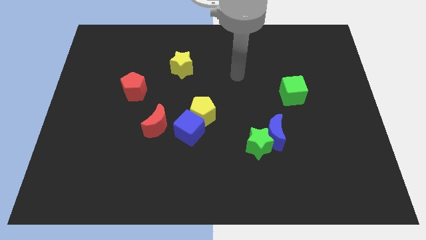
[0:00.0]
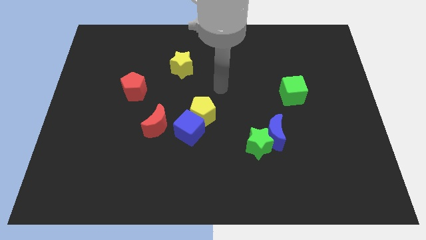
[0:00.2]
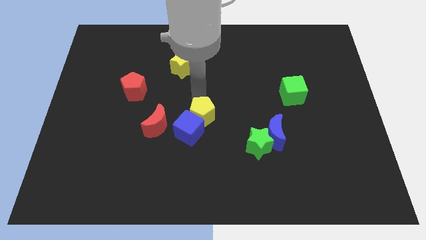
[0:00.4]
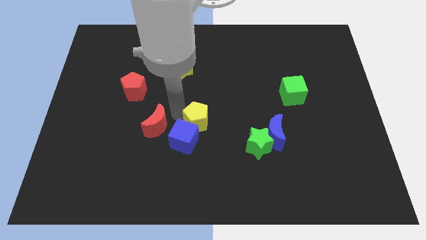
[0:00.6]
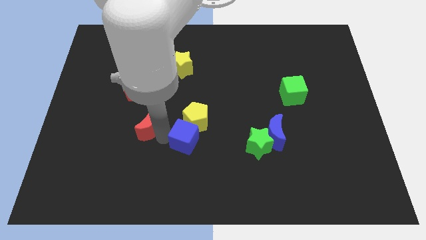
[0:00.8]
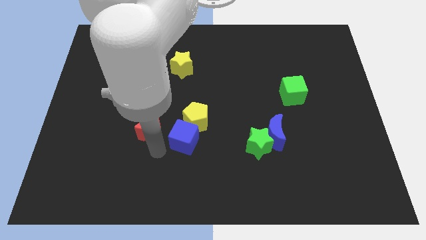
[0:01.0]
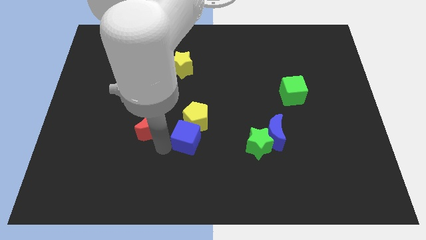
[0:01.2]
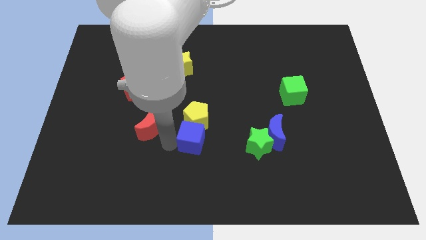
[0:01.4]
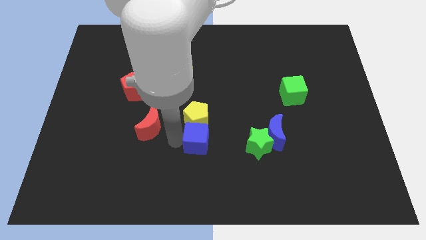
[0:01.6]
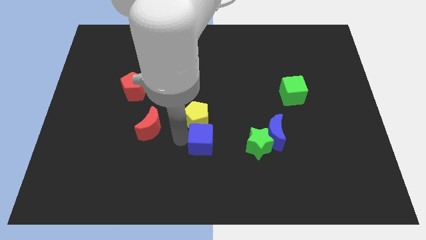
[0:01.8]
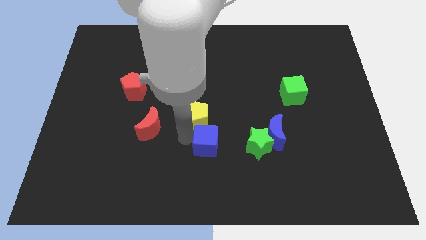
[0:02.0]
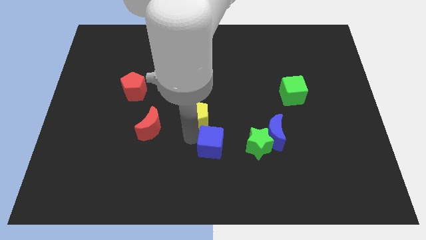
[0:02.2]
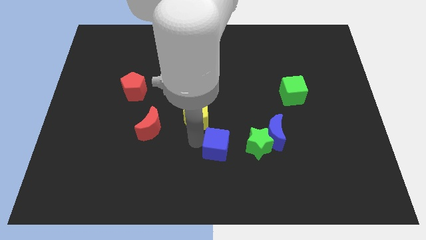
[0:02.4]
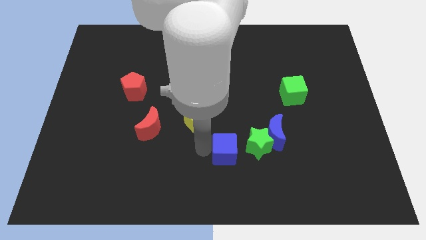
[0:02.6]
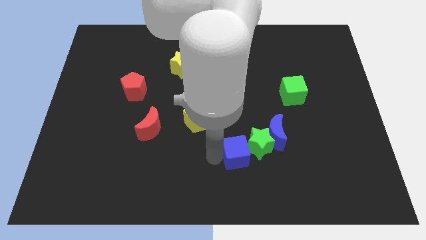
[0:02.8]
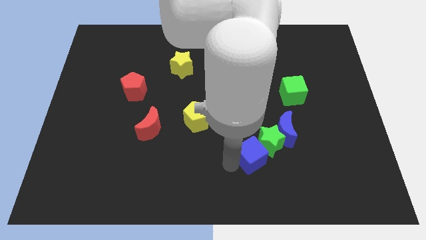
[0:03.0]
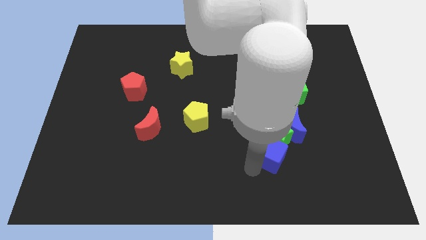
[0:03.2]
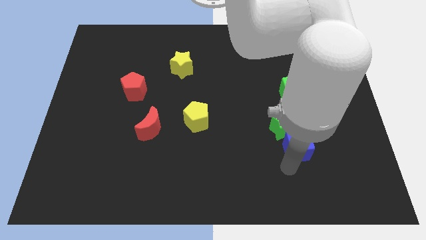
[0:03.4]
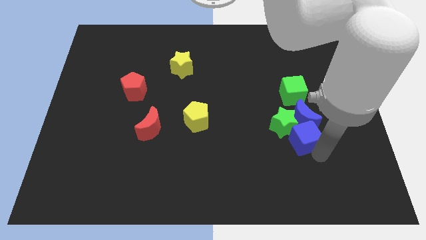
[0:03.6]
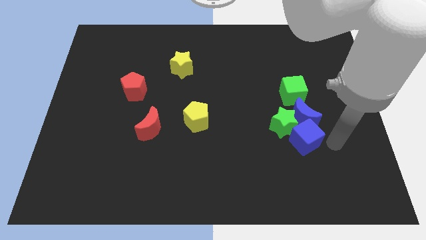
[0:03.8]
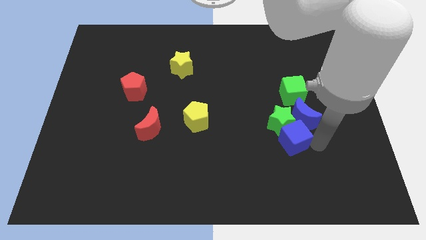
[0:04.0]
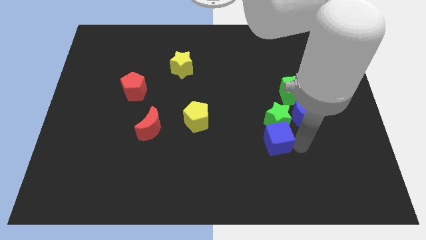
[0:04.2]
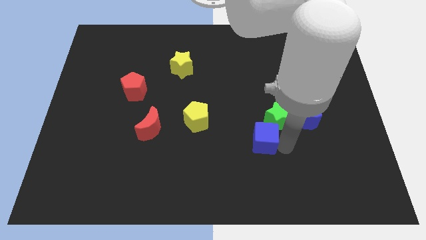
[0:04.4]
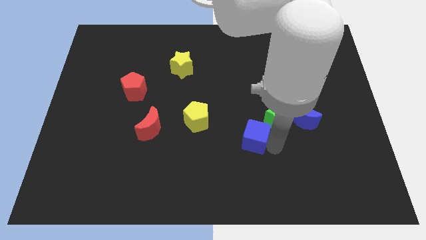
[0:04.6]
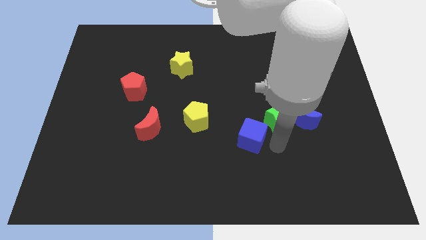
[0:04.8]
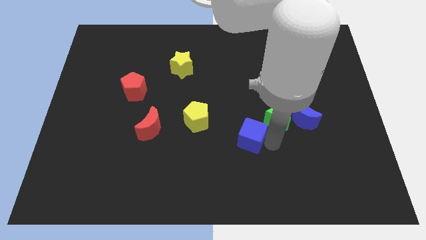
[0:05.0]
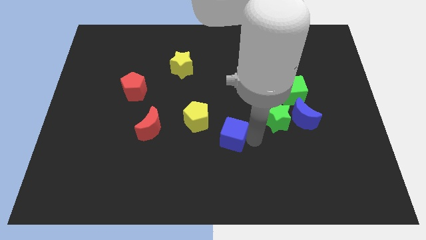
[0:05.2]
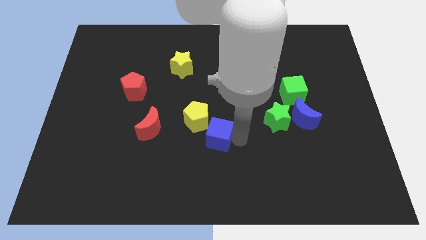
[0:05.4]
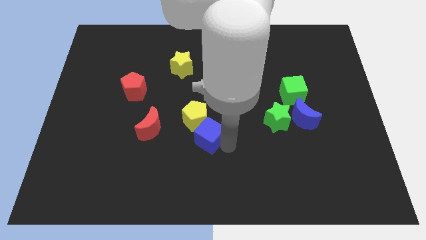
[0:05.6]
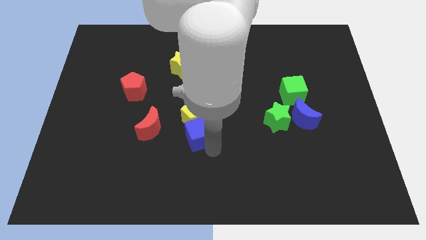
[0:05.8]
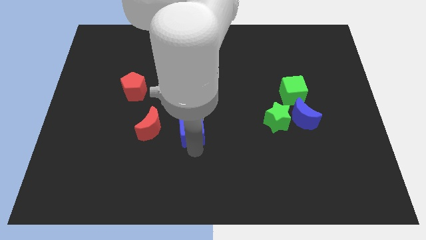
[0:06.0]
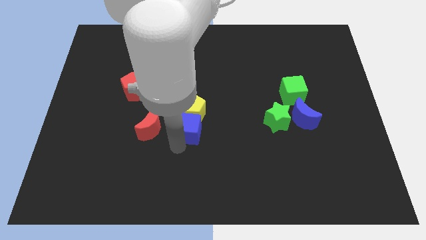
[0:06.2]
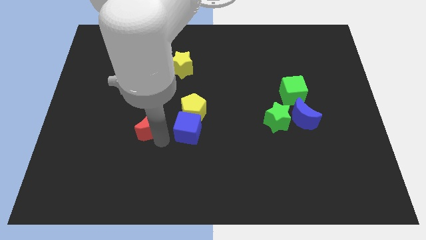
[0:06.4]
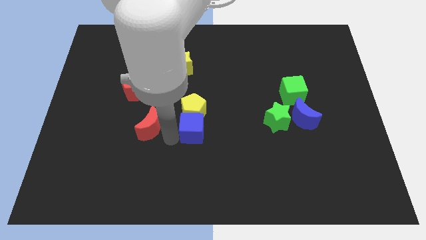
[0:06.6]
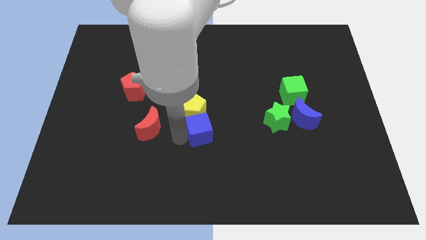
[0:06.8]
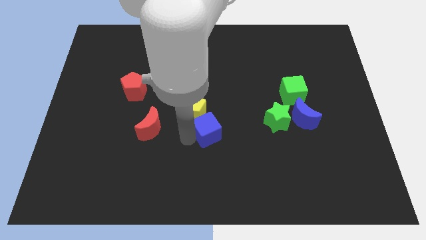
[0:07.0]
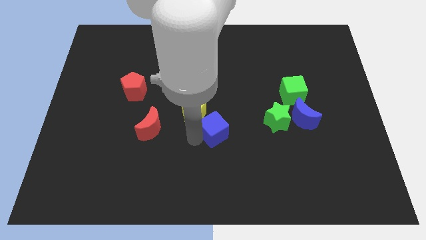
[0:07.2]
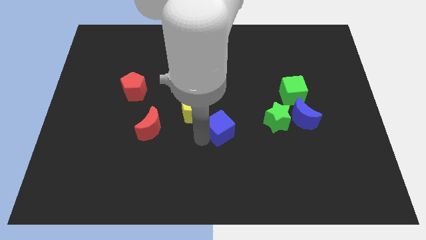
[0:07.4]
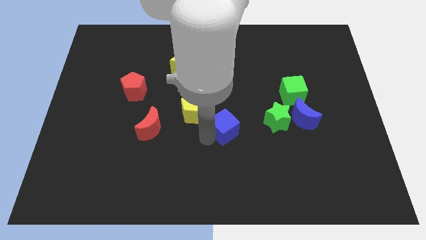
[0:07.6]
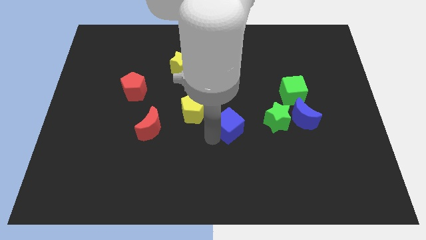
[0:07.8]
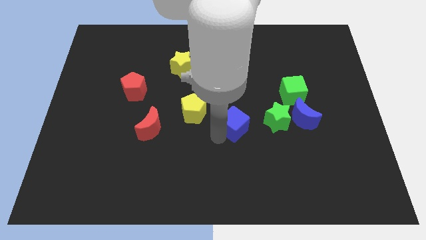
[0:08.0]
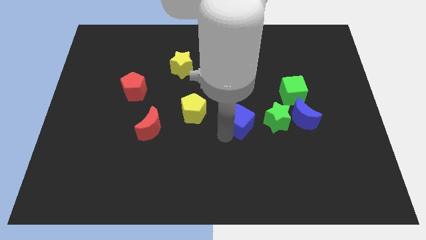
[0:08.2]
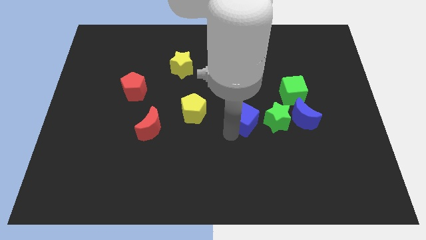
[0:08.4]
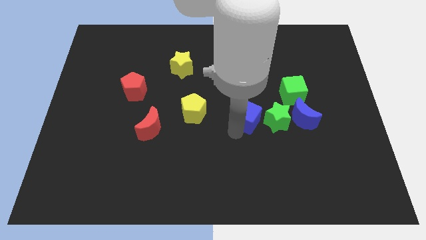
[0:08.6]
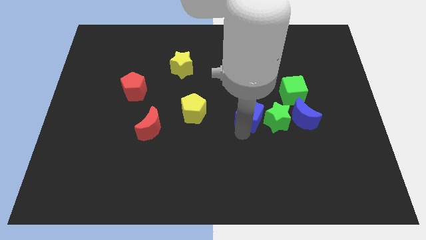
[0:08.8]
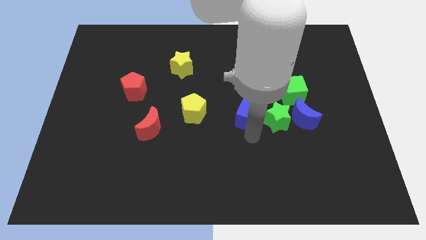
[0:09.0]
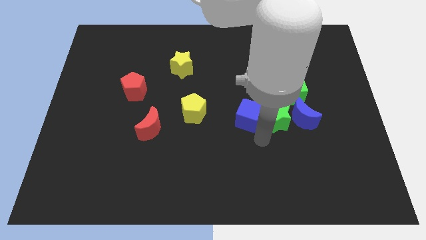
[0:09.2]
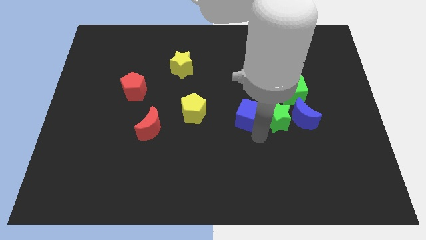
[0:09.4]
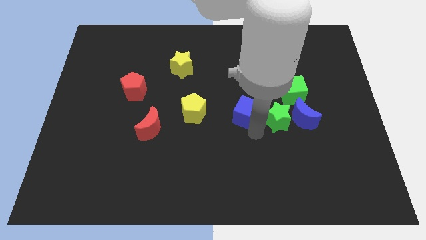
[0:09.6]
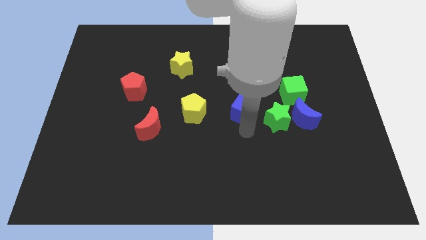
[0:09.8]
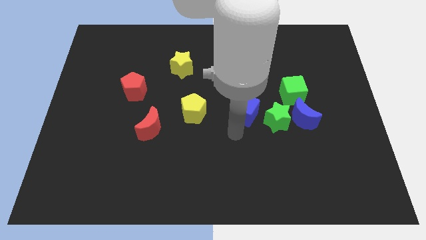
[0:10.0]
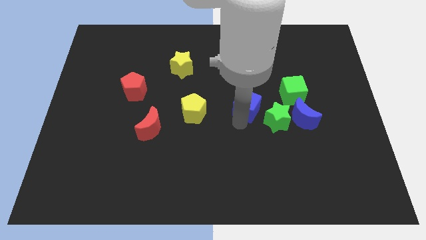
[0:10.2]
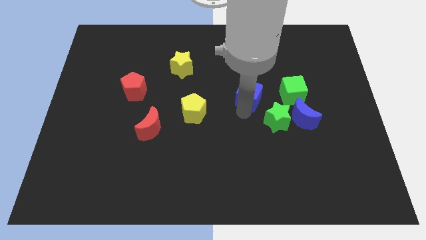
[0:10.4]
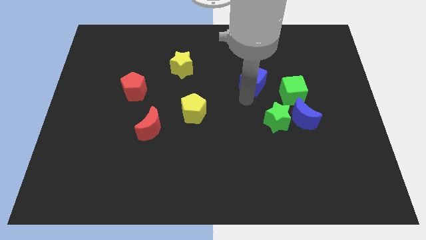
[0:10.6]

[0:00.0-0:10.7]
push the blue cube upwards and then right

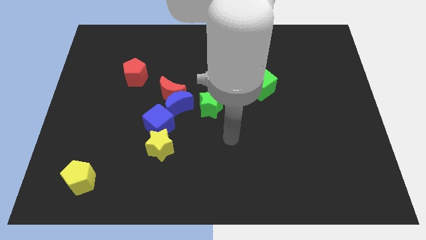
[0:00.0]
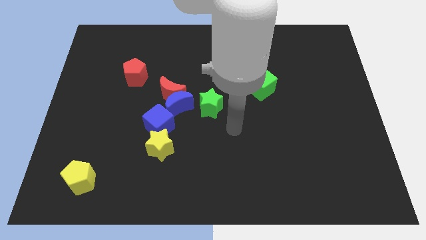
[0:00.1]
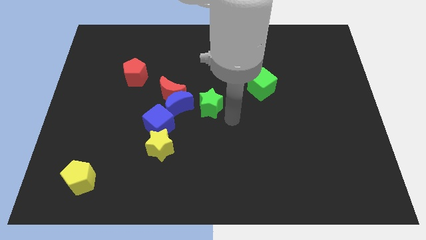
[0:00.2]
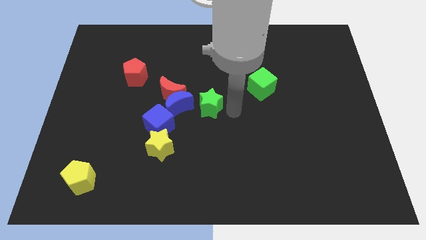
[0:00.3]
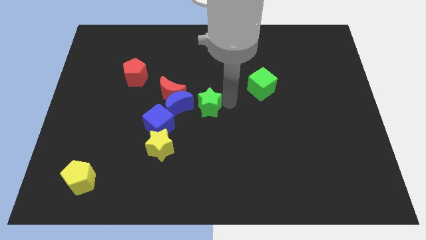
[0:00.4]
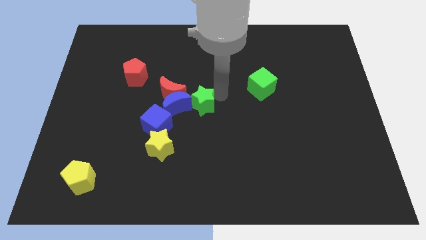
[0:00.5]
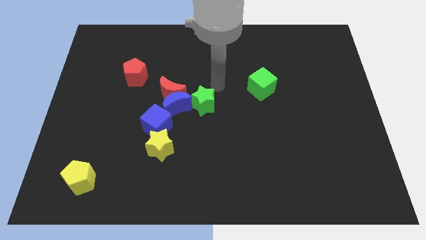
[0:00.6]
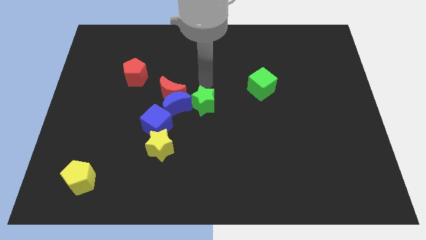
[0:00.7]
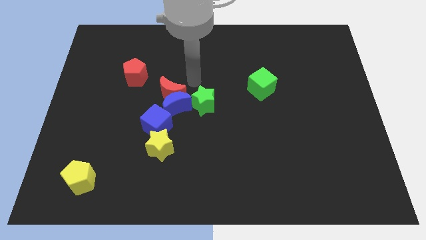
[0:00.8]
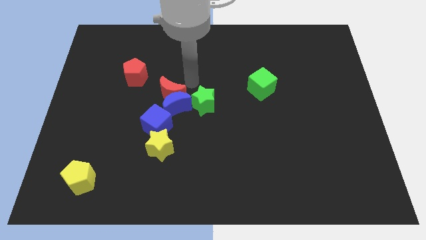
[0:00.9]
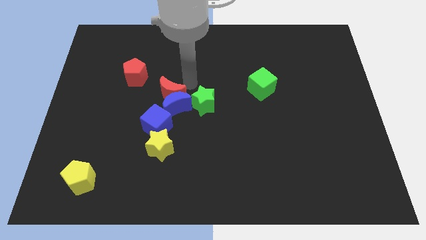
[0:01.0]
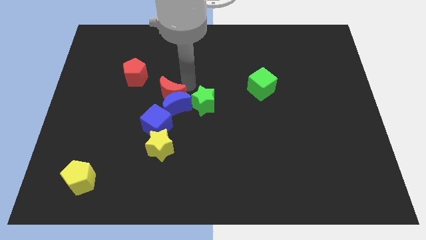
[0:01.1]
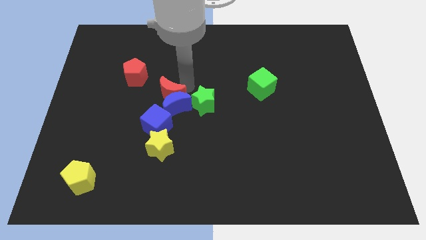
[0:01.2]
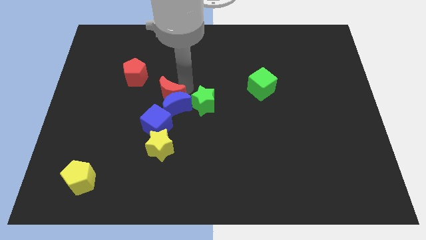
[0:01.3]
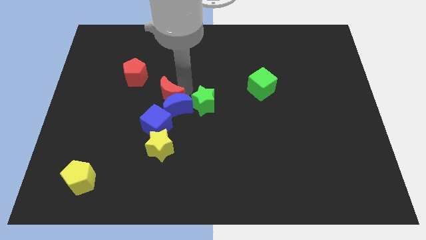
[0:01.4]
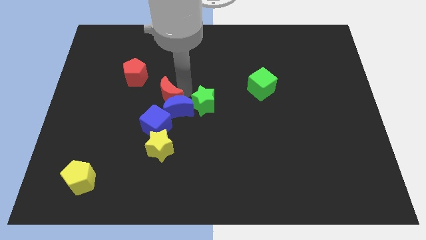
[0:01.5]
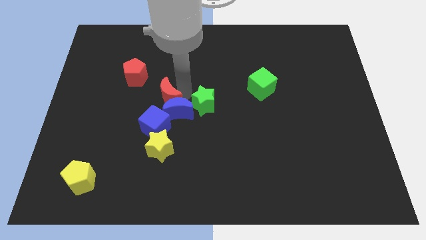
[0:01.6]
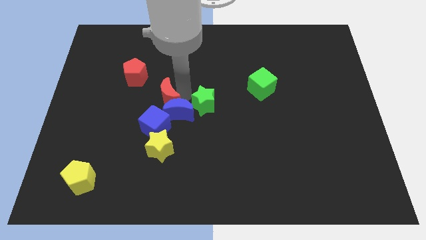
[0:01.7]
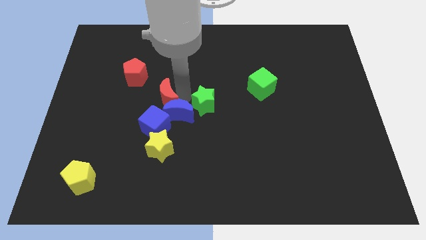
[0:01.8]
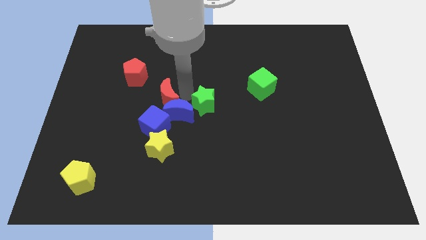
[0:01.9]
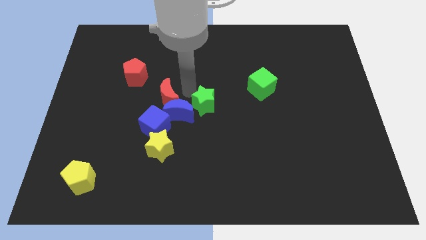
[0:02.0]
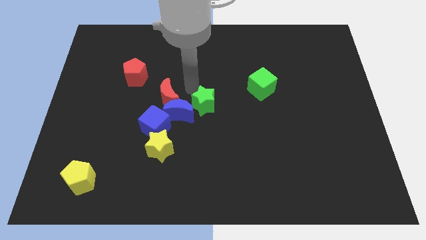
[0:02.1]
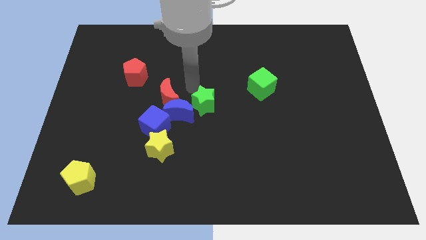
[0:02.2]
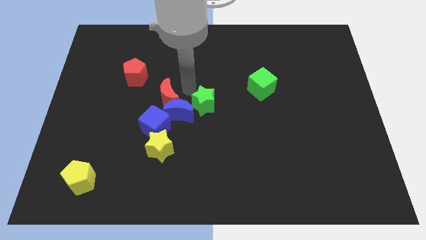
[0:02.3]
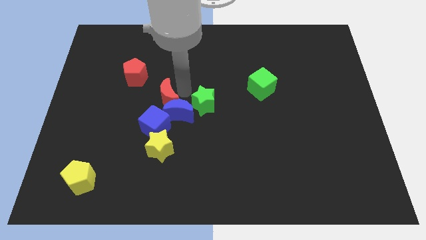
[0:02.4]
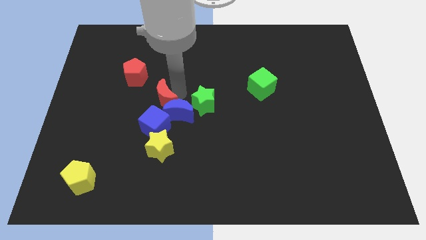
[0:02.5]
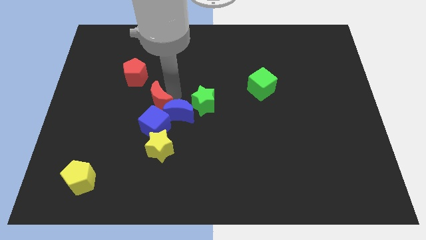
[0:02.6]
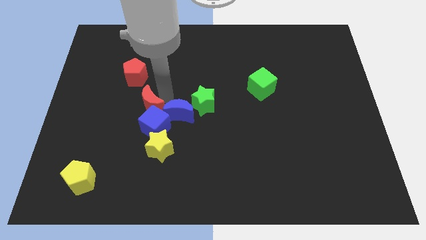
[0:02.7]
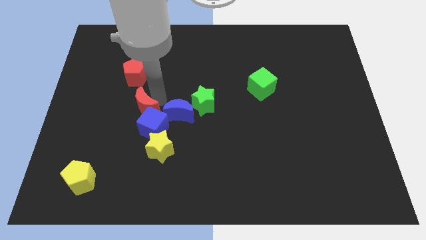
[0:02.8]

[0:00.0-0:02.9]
push the red moon somewhat downwards and then to the left
